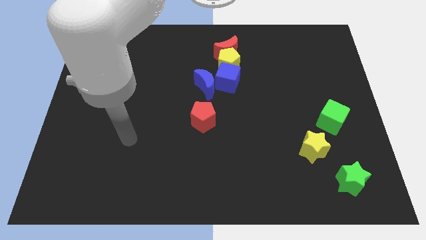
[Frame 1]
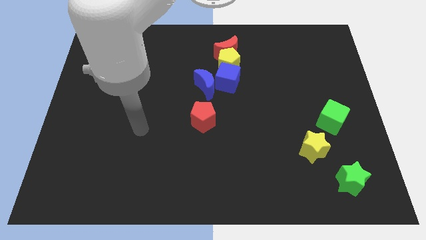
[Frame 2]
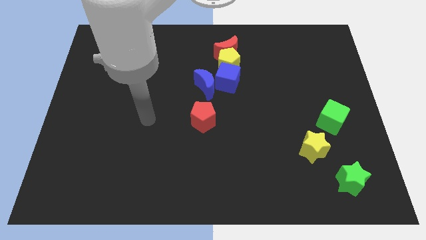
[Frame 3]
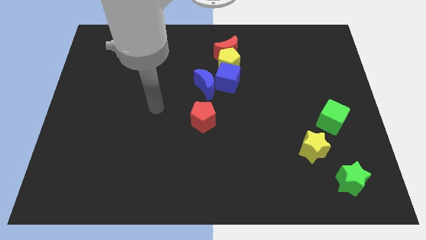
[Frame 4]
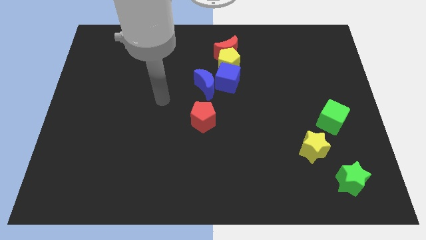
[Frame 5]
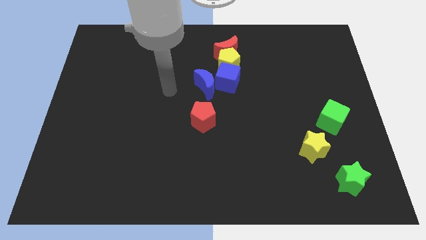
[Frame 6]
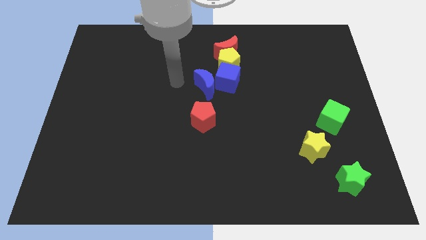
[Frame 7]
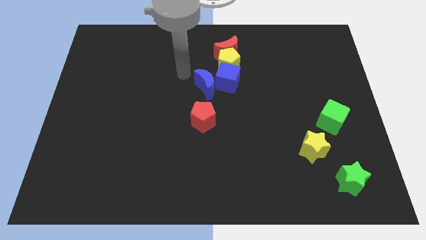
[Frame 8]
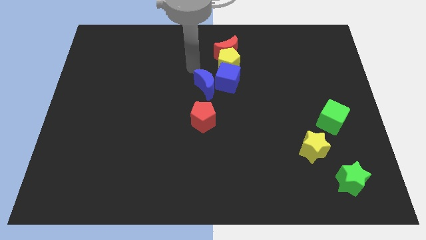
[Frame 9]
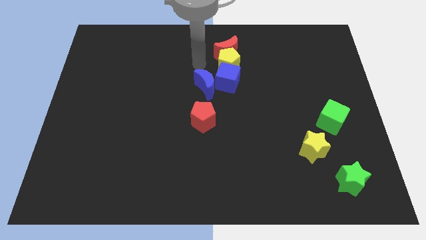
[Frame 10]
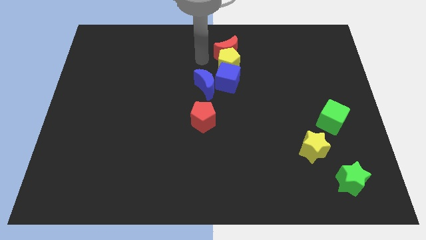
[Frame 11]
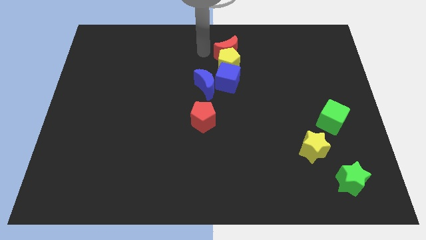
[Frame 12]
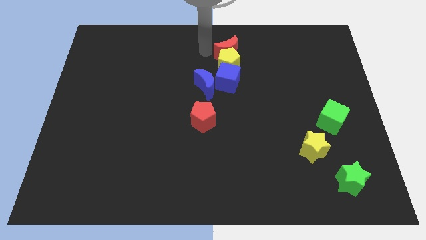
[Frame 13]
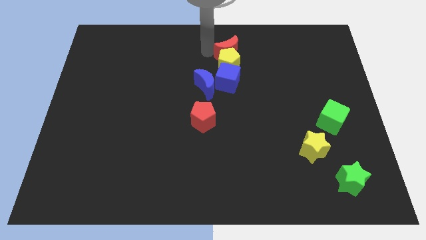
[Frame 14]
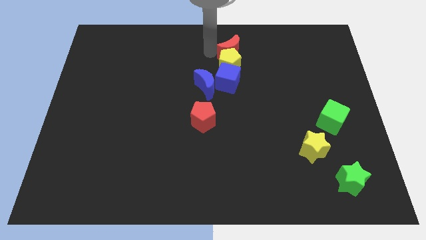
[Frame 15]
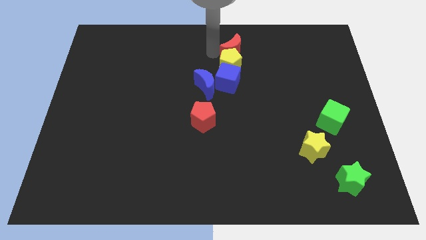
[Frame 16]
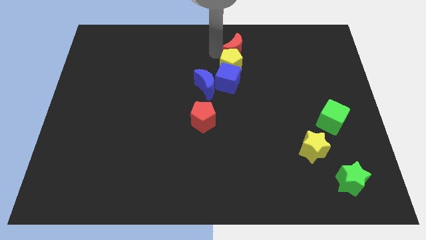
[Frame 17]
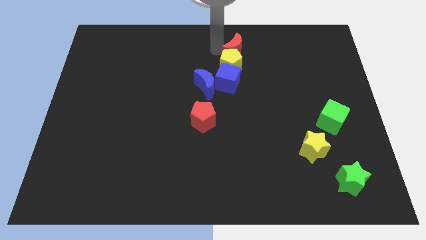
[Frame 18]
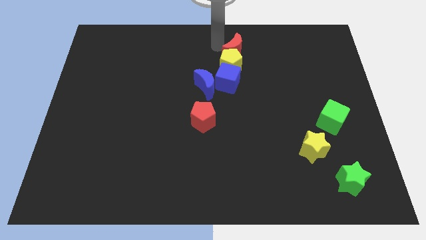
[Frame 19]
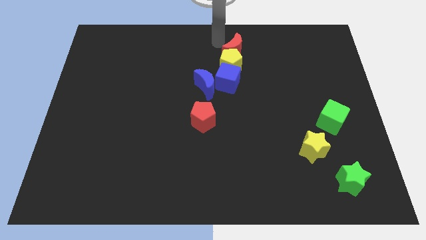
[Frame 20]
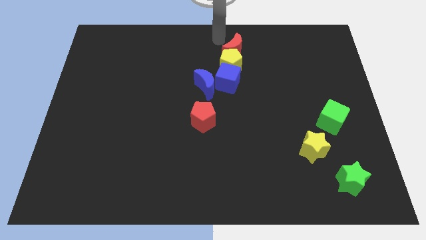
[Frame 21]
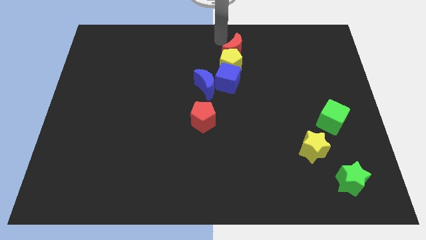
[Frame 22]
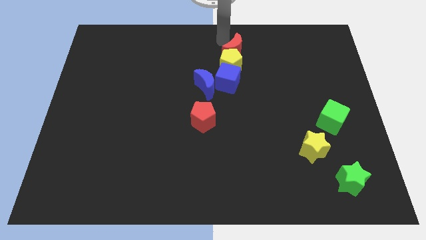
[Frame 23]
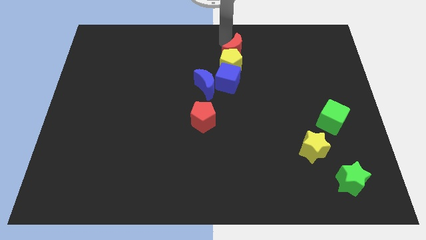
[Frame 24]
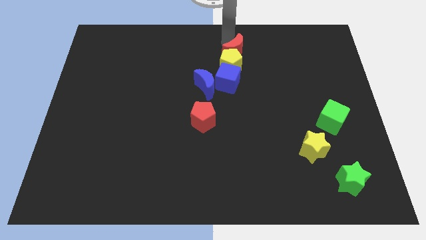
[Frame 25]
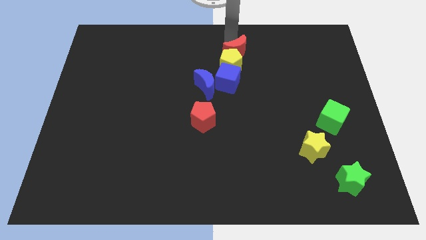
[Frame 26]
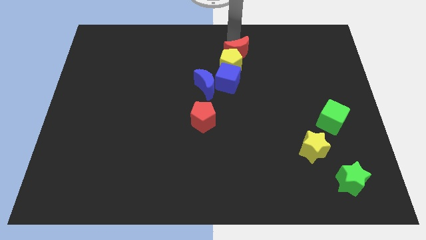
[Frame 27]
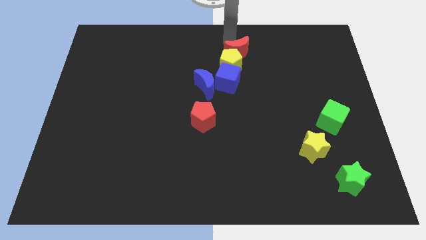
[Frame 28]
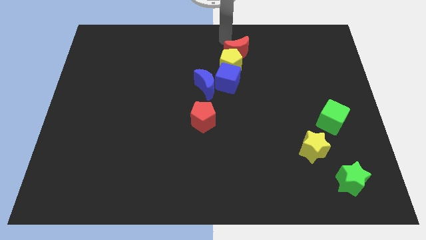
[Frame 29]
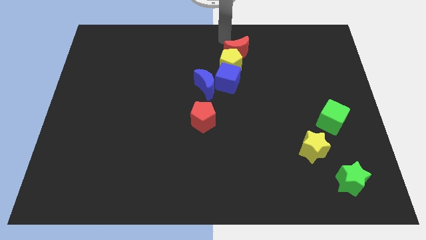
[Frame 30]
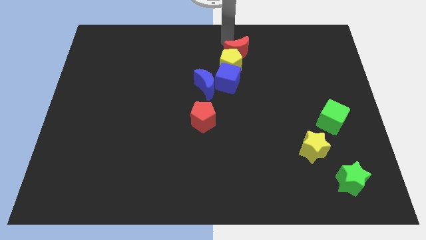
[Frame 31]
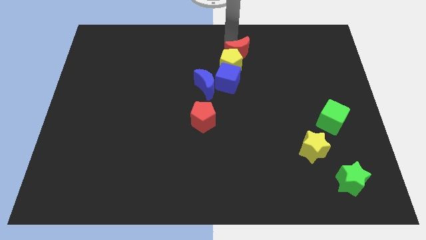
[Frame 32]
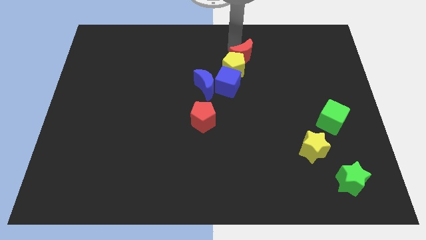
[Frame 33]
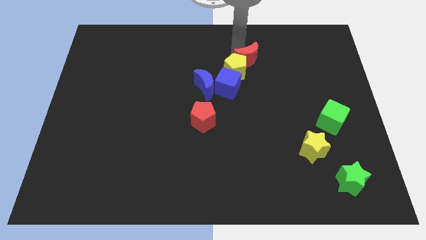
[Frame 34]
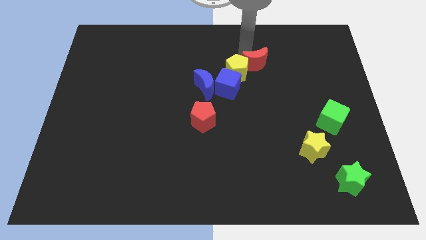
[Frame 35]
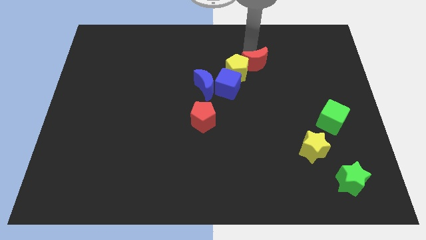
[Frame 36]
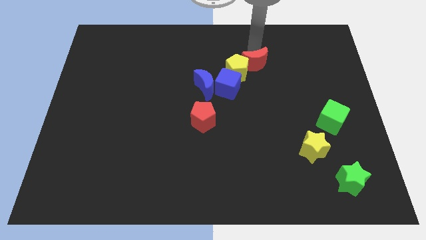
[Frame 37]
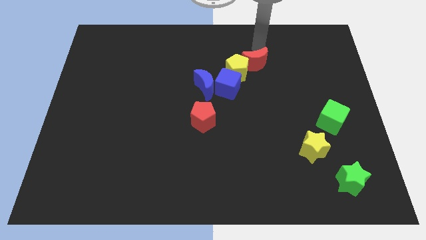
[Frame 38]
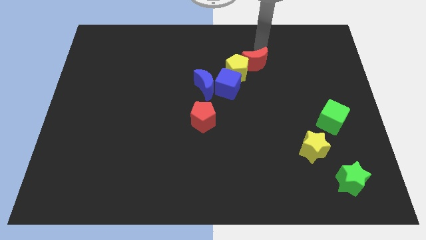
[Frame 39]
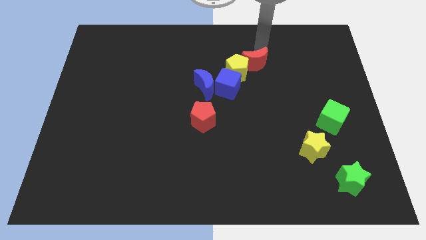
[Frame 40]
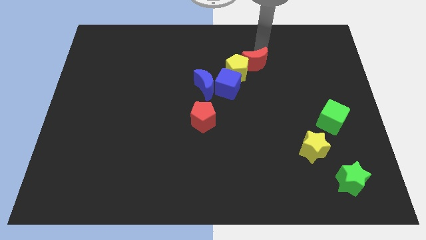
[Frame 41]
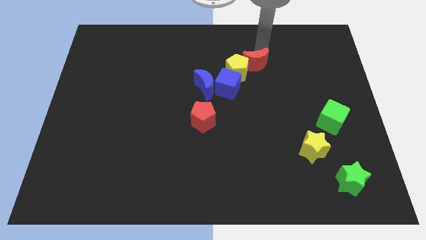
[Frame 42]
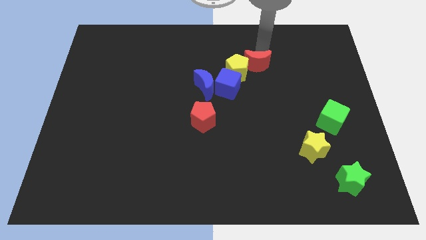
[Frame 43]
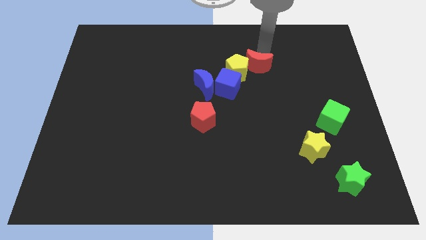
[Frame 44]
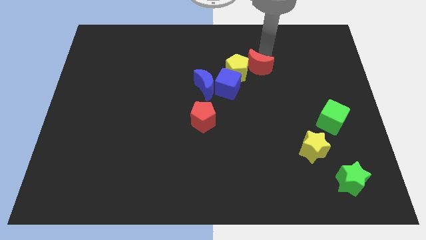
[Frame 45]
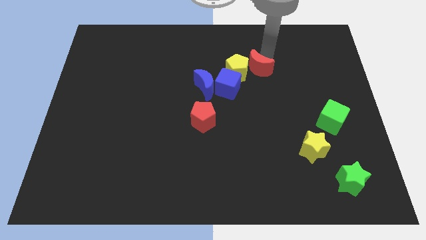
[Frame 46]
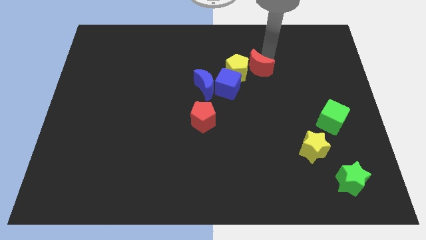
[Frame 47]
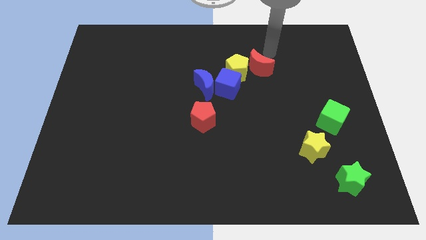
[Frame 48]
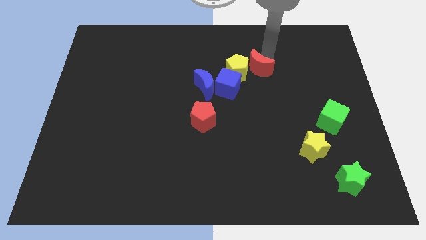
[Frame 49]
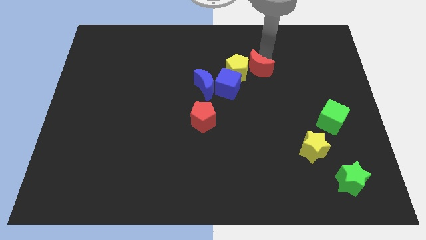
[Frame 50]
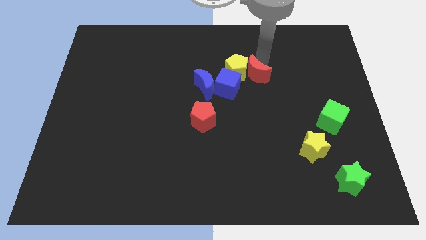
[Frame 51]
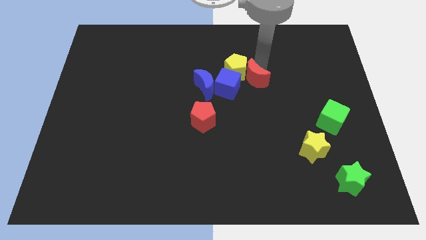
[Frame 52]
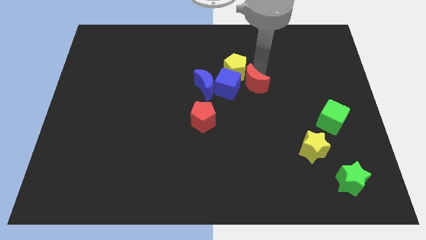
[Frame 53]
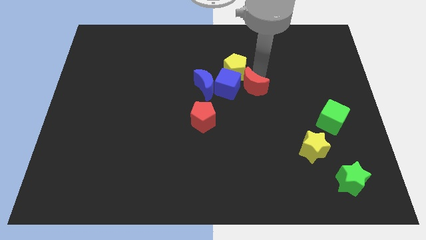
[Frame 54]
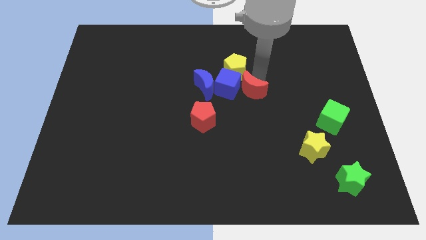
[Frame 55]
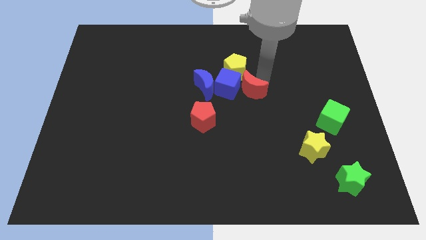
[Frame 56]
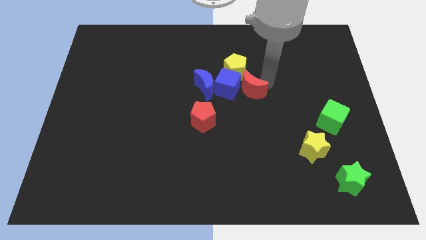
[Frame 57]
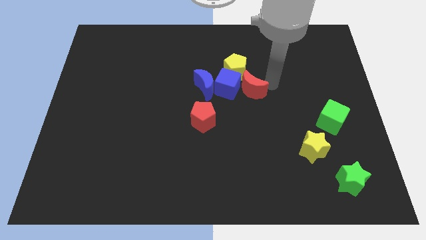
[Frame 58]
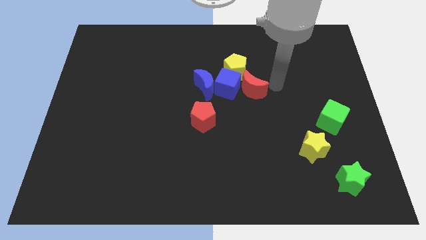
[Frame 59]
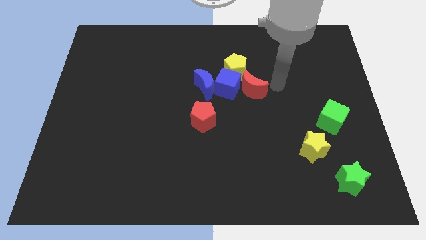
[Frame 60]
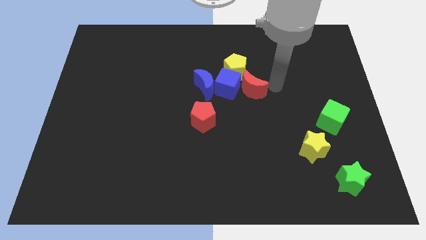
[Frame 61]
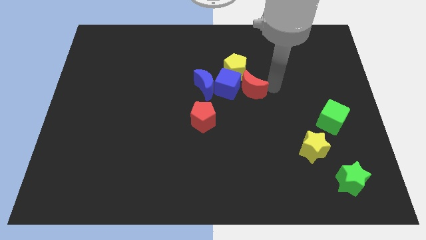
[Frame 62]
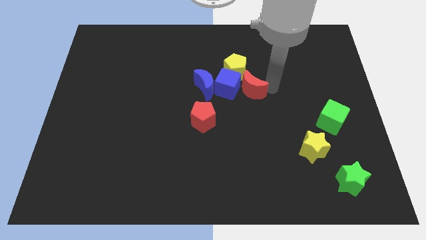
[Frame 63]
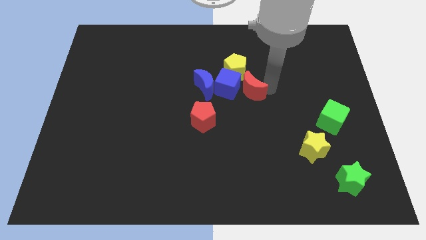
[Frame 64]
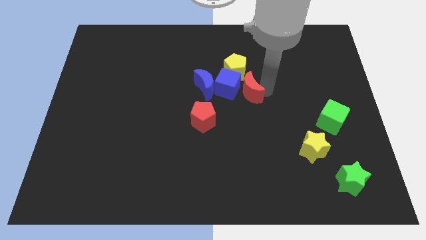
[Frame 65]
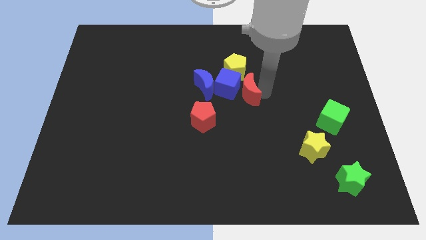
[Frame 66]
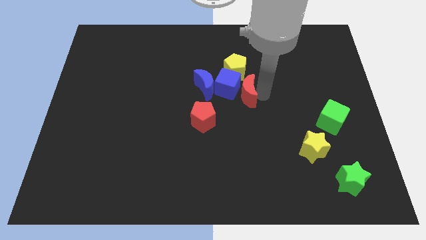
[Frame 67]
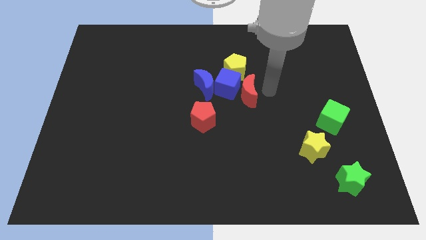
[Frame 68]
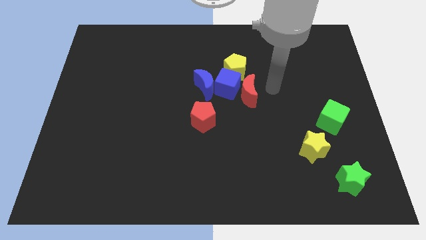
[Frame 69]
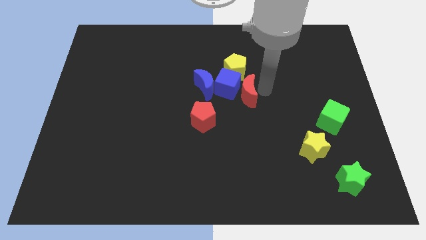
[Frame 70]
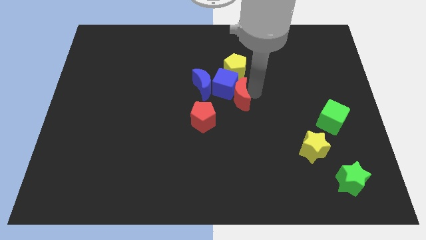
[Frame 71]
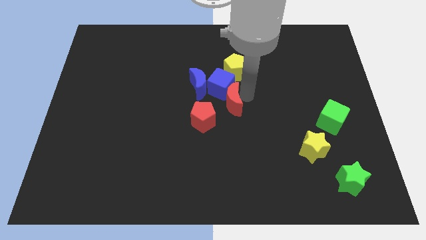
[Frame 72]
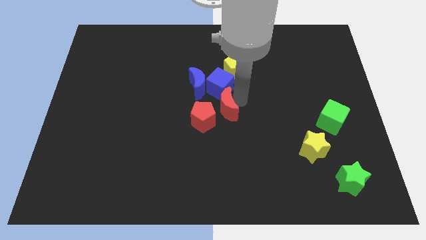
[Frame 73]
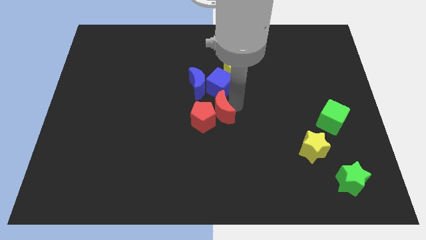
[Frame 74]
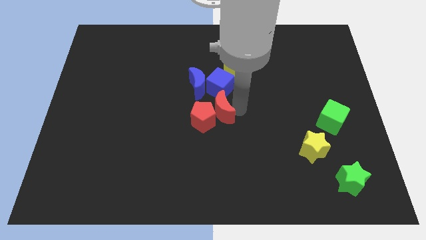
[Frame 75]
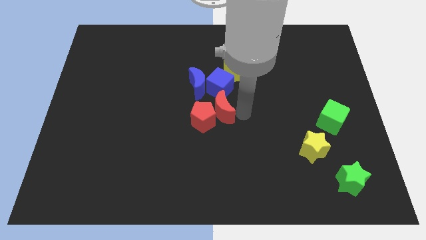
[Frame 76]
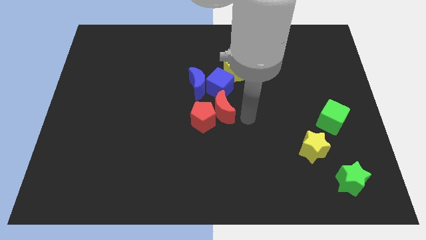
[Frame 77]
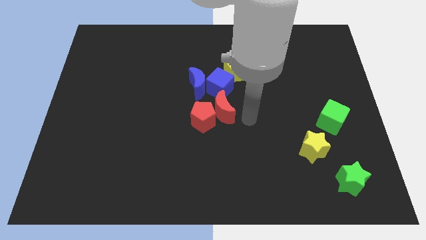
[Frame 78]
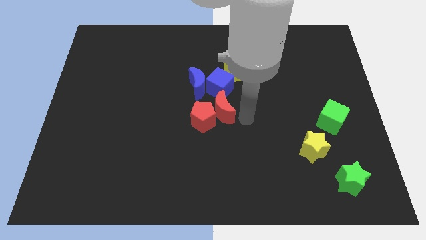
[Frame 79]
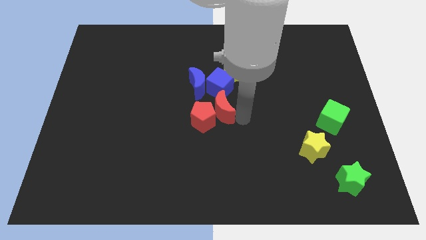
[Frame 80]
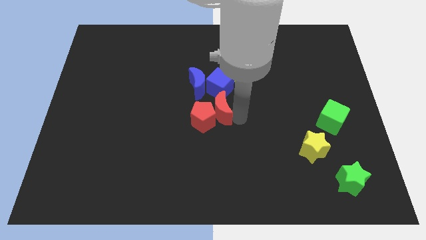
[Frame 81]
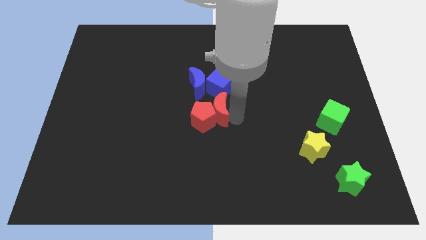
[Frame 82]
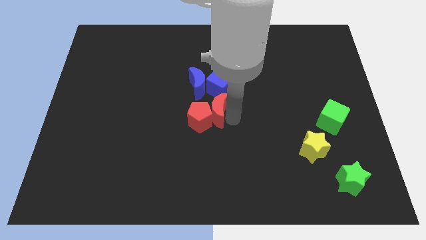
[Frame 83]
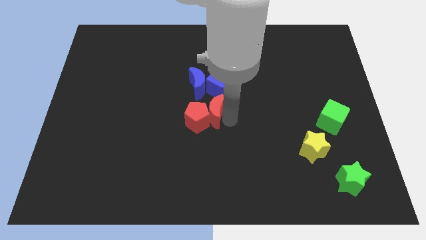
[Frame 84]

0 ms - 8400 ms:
put the red moon diagonally down and to the left of the blue cube
